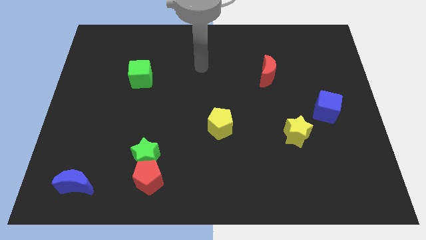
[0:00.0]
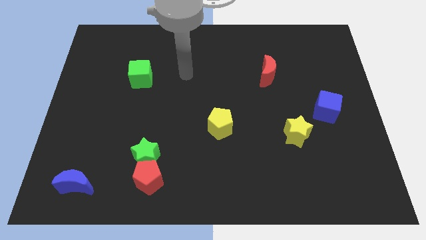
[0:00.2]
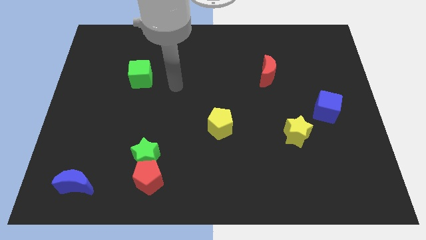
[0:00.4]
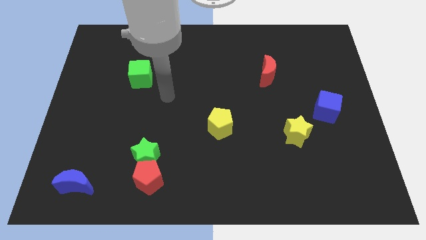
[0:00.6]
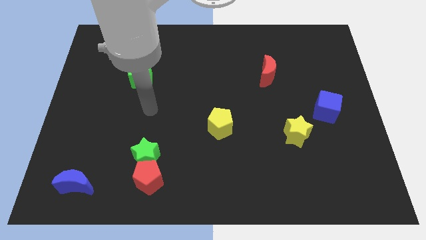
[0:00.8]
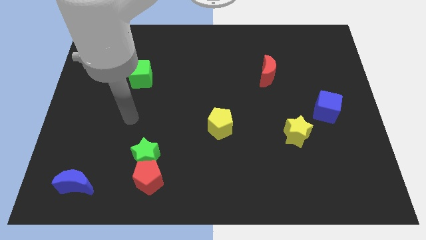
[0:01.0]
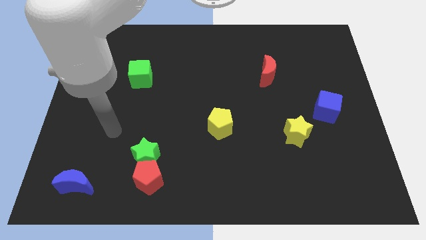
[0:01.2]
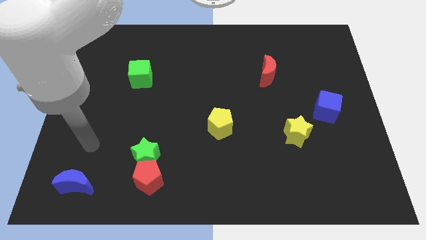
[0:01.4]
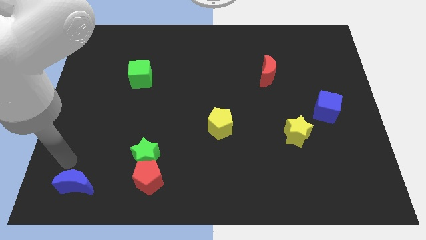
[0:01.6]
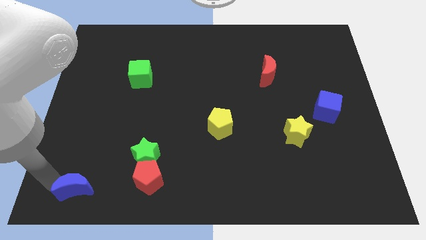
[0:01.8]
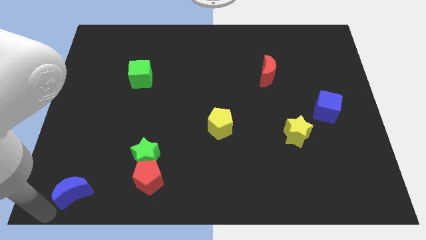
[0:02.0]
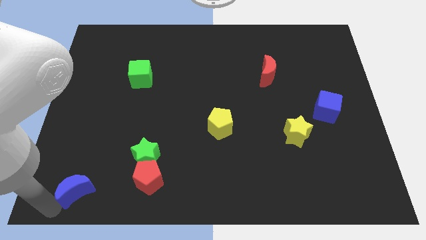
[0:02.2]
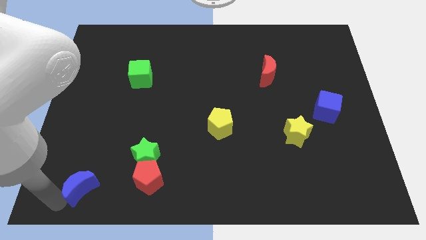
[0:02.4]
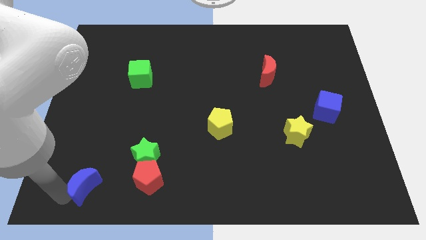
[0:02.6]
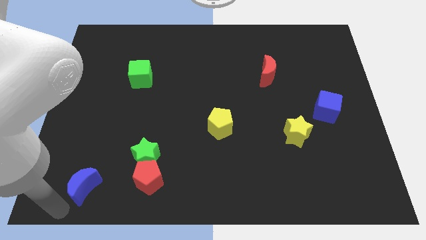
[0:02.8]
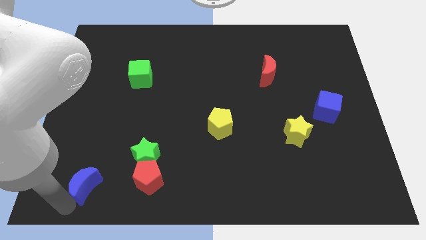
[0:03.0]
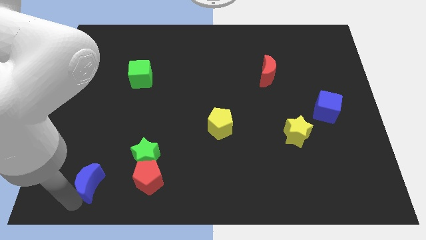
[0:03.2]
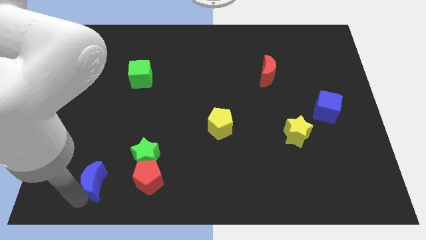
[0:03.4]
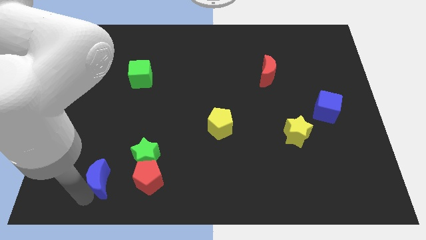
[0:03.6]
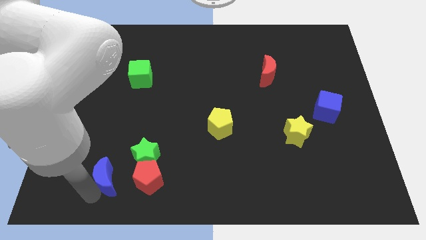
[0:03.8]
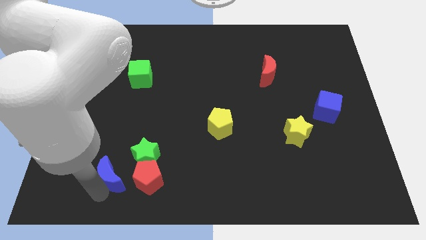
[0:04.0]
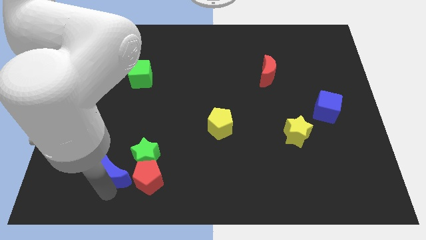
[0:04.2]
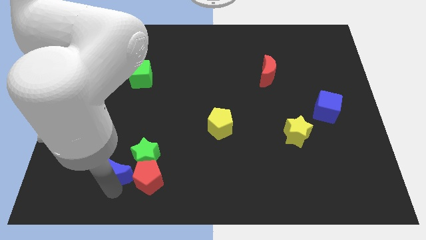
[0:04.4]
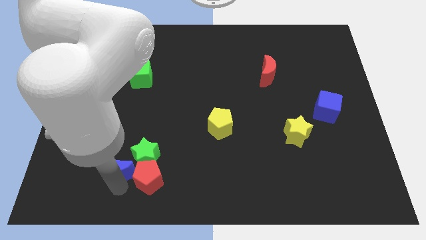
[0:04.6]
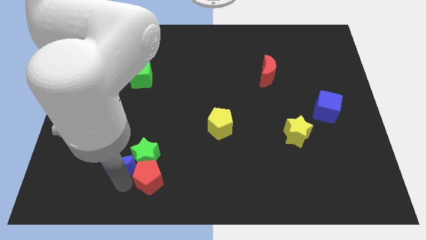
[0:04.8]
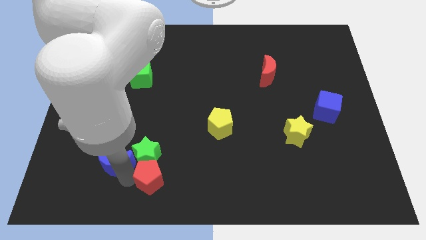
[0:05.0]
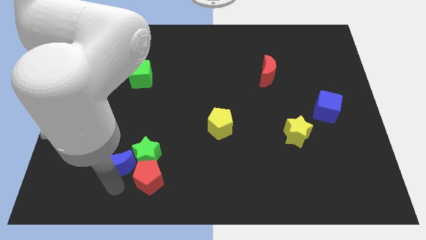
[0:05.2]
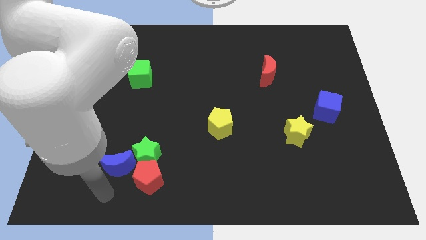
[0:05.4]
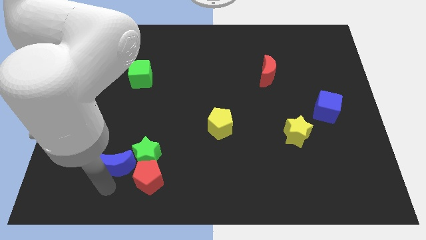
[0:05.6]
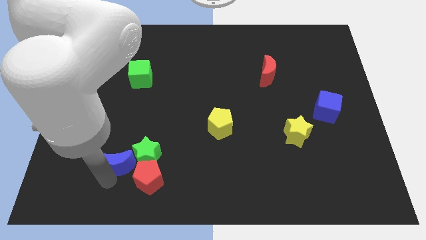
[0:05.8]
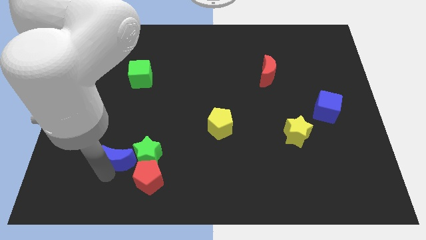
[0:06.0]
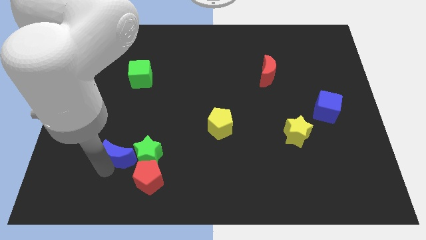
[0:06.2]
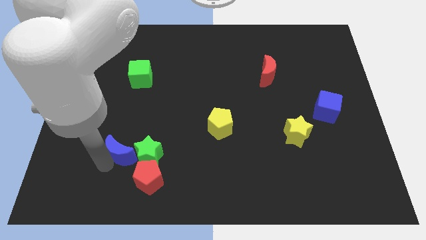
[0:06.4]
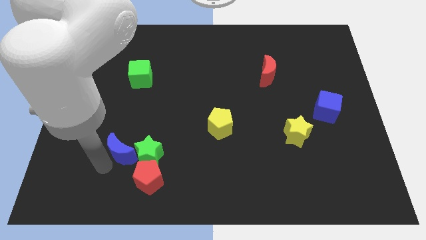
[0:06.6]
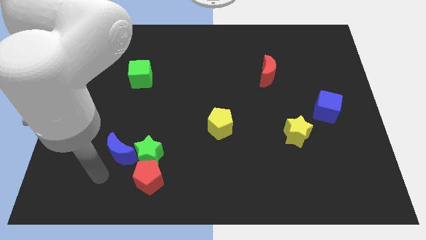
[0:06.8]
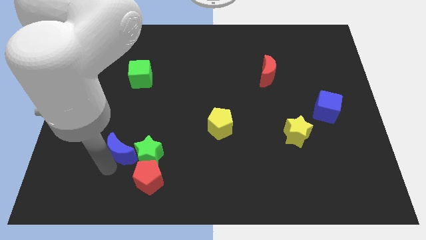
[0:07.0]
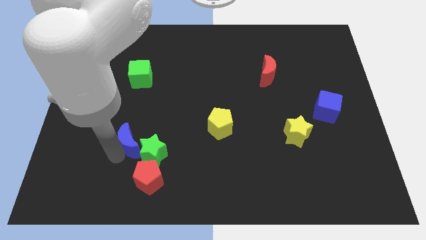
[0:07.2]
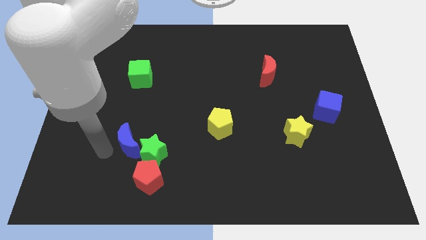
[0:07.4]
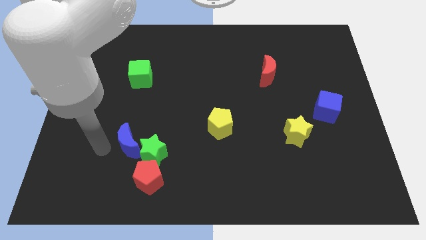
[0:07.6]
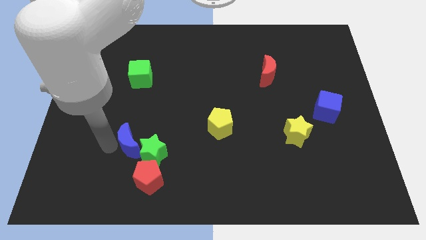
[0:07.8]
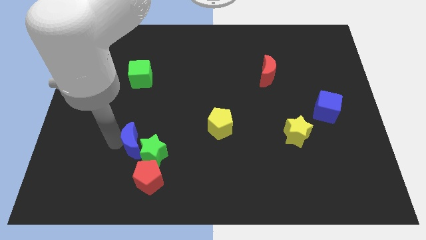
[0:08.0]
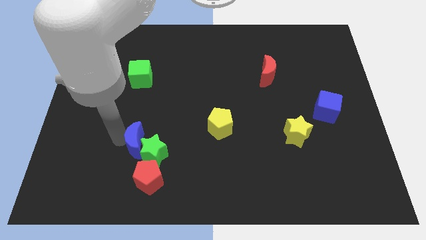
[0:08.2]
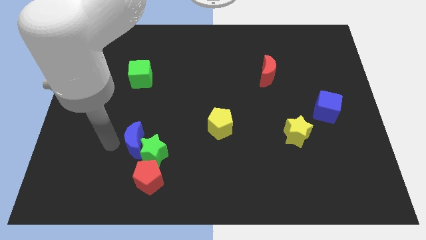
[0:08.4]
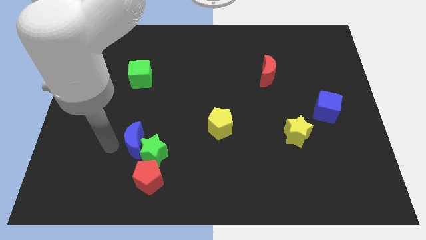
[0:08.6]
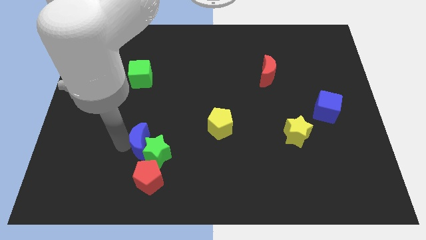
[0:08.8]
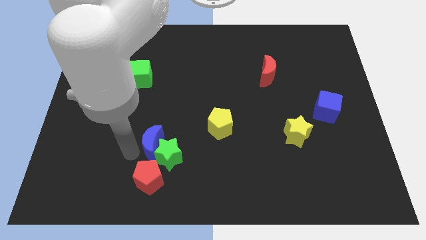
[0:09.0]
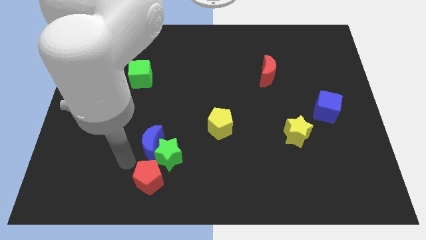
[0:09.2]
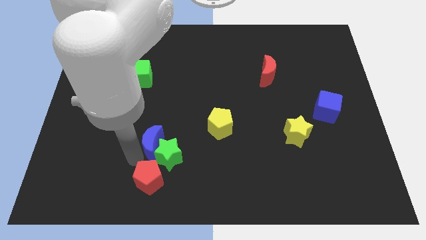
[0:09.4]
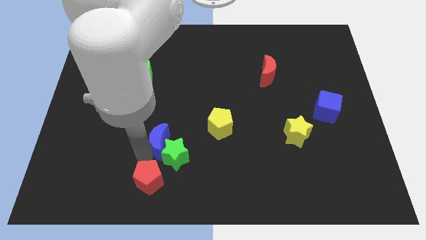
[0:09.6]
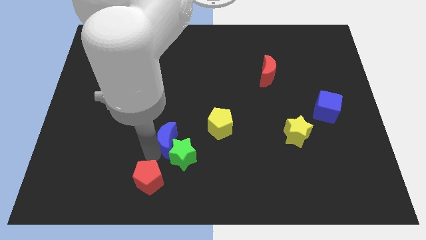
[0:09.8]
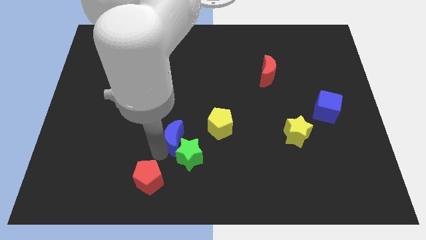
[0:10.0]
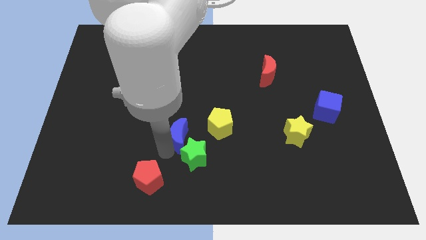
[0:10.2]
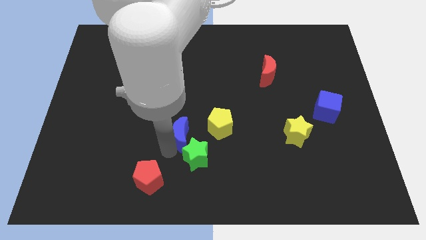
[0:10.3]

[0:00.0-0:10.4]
put the blue moon to the middle of the board
